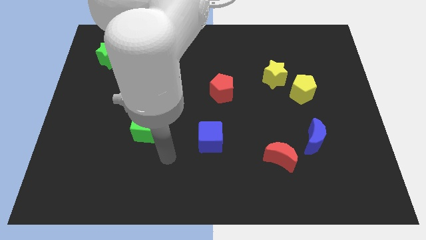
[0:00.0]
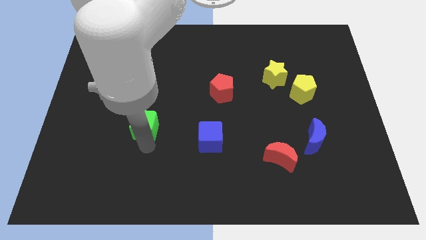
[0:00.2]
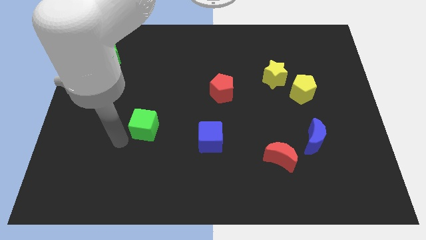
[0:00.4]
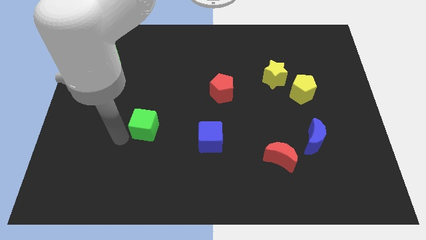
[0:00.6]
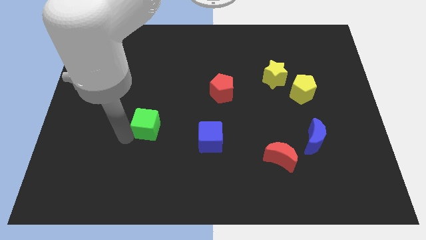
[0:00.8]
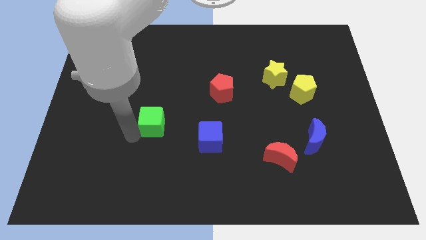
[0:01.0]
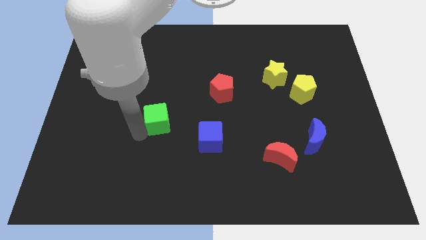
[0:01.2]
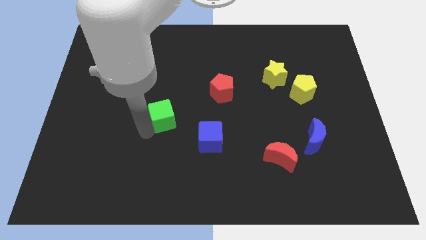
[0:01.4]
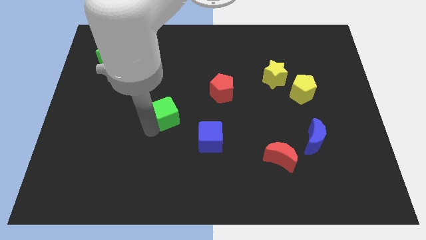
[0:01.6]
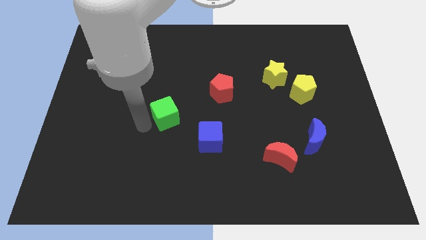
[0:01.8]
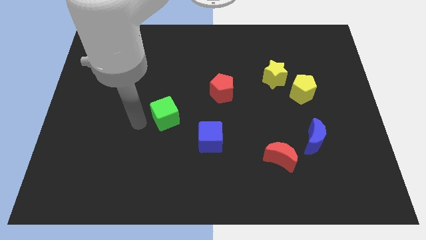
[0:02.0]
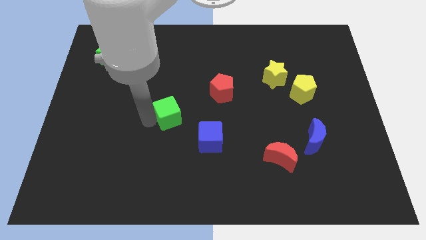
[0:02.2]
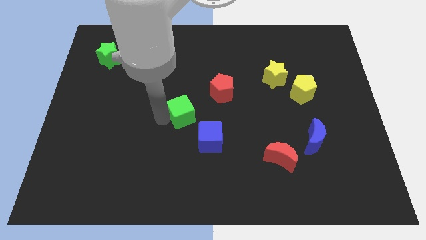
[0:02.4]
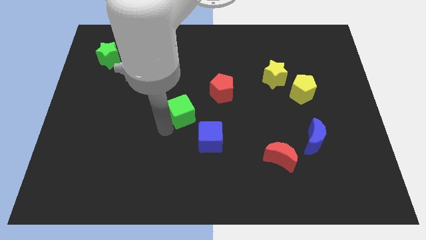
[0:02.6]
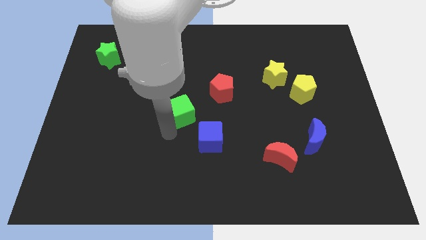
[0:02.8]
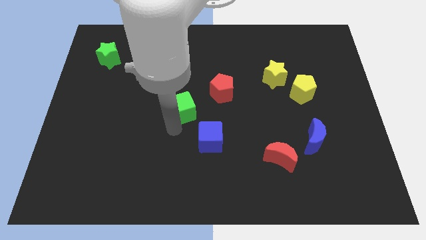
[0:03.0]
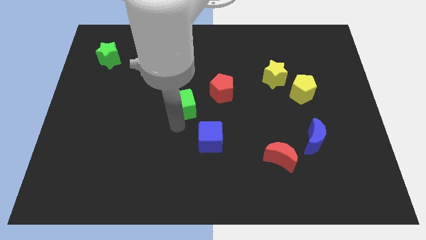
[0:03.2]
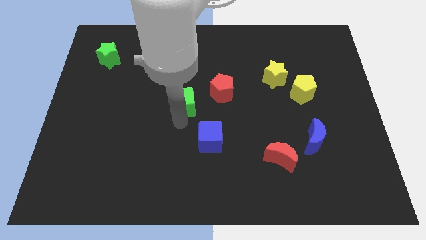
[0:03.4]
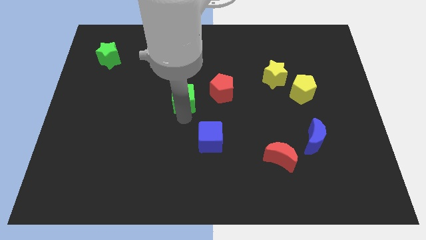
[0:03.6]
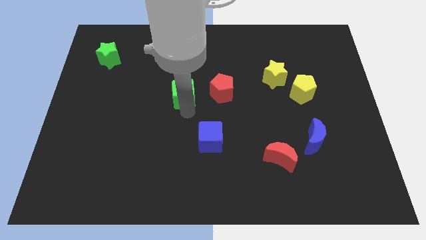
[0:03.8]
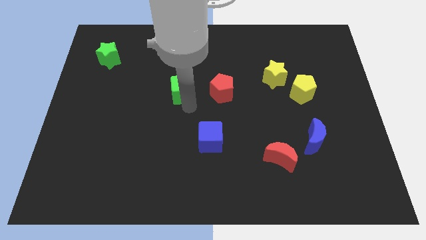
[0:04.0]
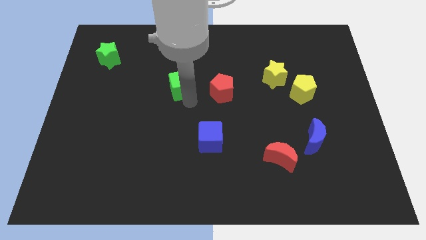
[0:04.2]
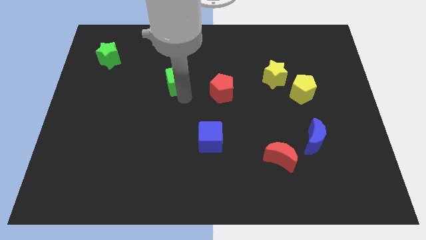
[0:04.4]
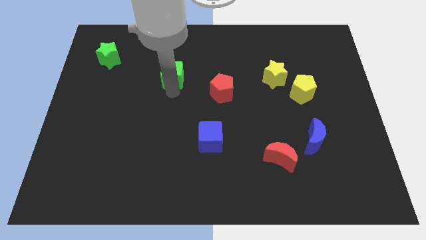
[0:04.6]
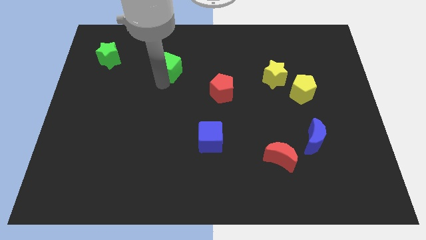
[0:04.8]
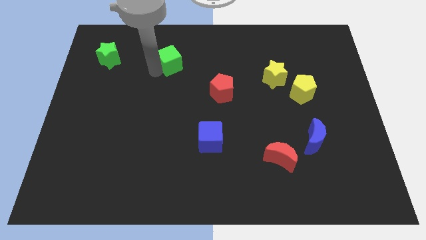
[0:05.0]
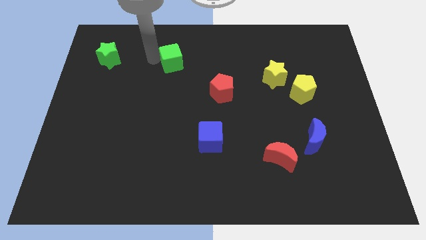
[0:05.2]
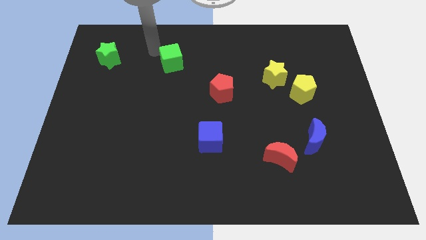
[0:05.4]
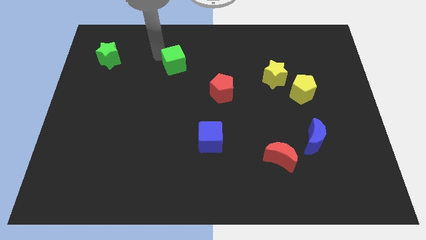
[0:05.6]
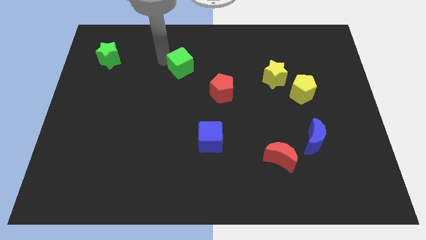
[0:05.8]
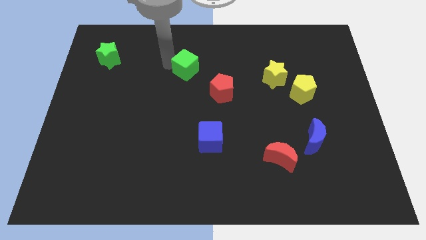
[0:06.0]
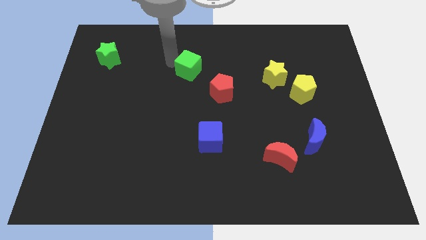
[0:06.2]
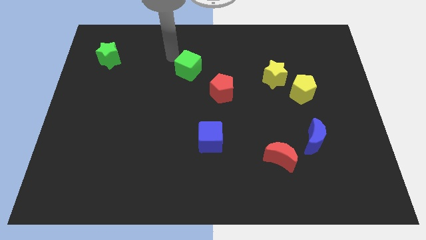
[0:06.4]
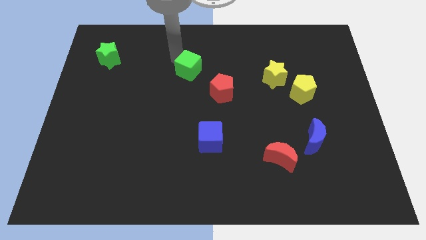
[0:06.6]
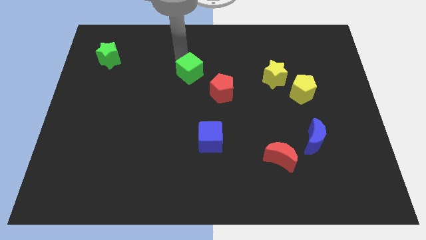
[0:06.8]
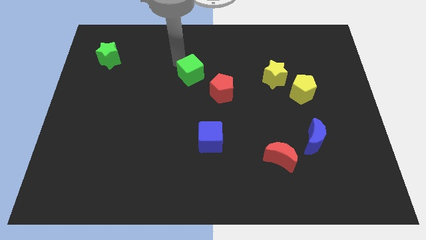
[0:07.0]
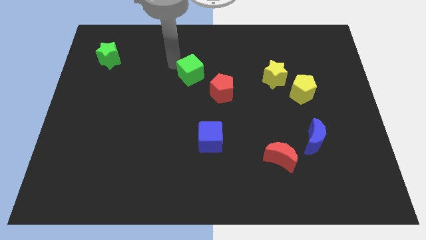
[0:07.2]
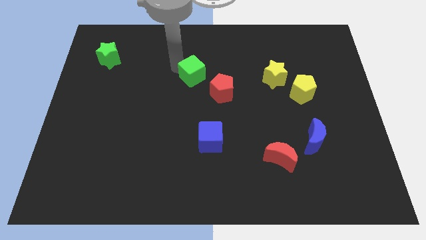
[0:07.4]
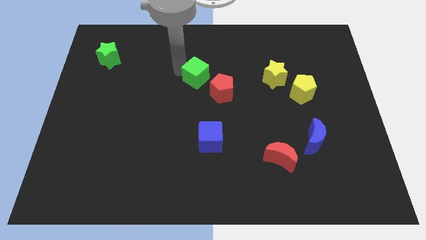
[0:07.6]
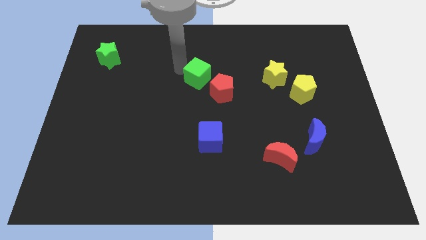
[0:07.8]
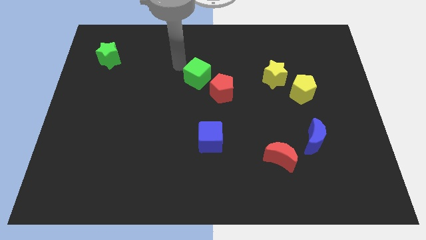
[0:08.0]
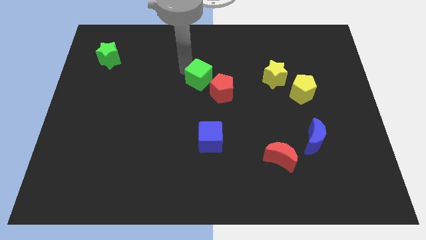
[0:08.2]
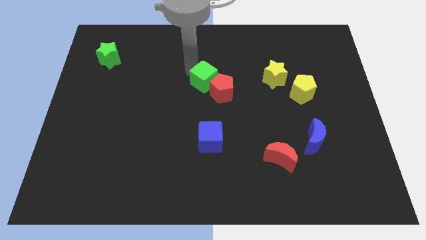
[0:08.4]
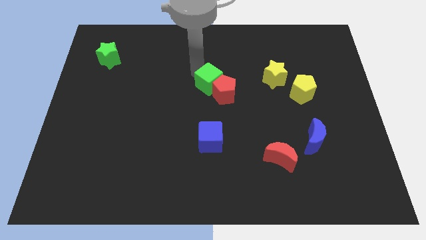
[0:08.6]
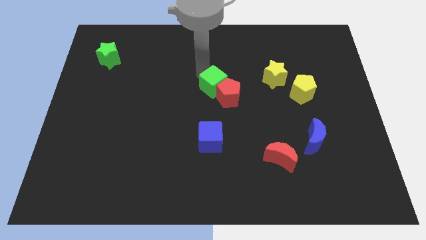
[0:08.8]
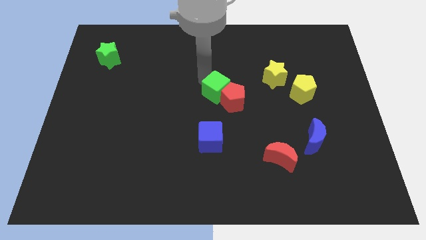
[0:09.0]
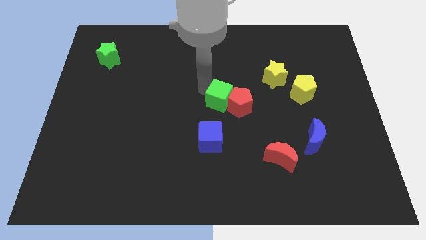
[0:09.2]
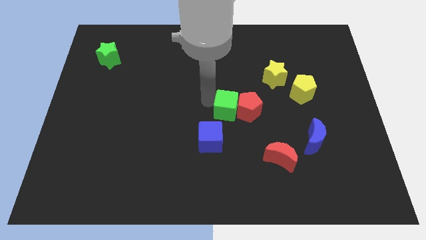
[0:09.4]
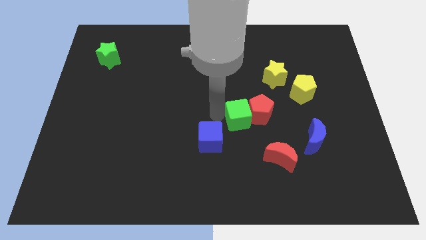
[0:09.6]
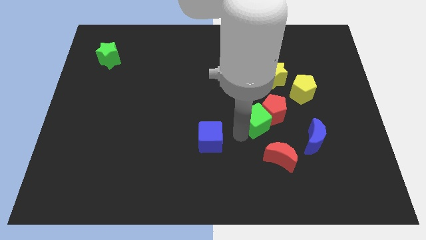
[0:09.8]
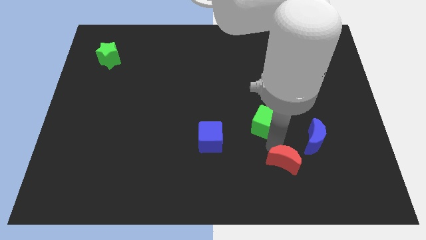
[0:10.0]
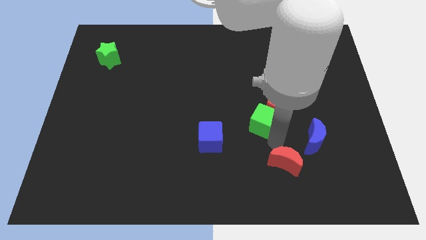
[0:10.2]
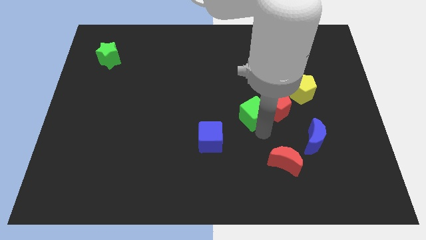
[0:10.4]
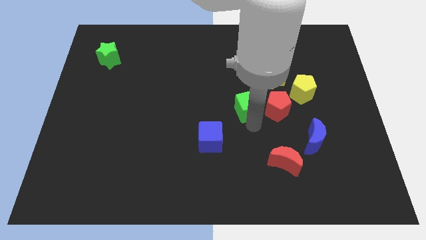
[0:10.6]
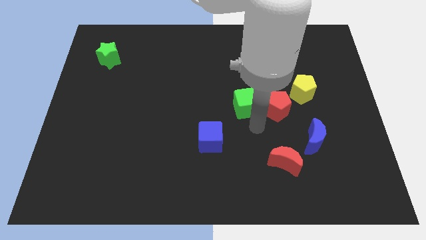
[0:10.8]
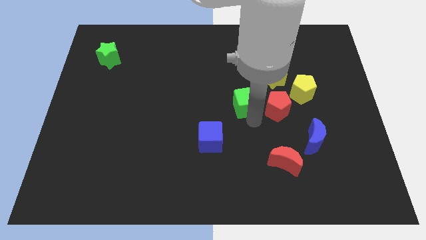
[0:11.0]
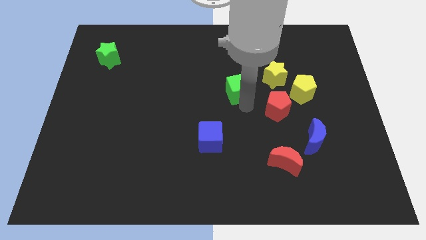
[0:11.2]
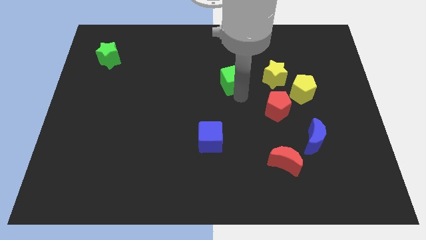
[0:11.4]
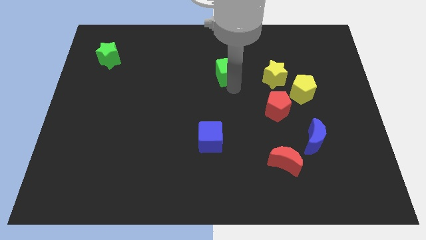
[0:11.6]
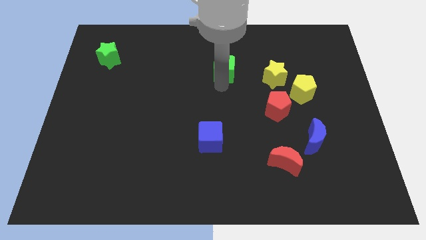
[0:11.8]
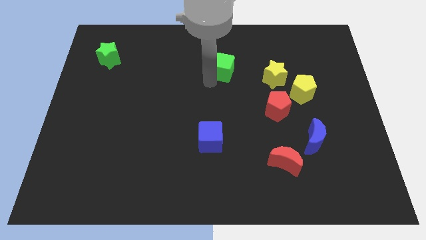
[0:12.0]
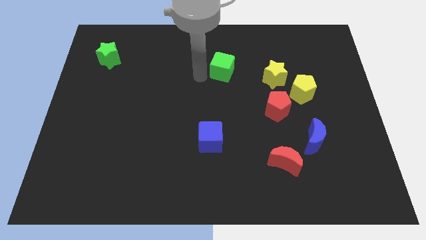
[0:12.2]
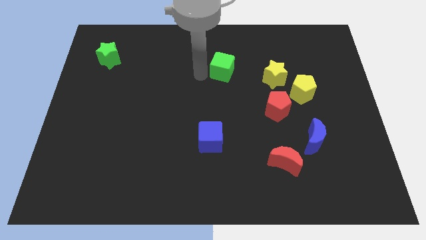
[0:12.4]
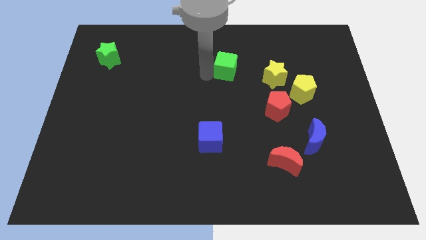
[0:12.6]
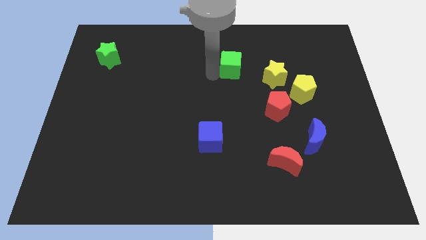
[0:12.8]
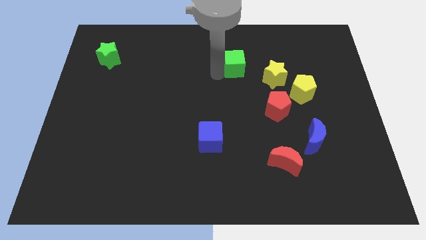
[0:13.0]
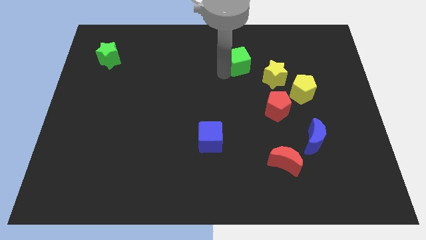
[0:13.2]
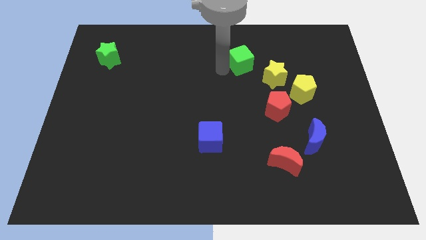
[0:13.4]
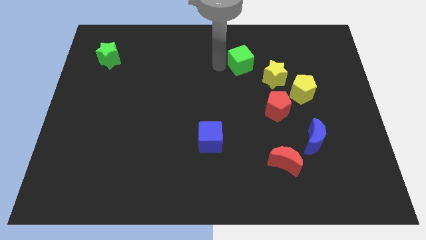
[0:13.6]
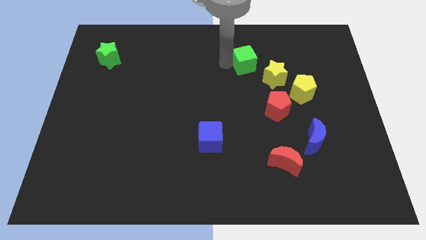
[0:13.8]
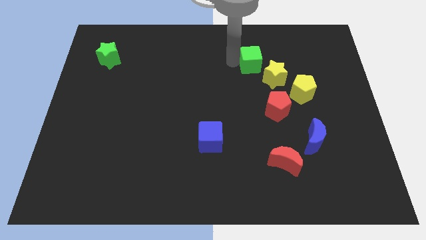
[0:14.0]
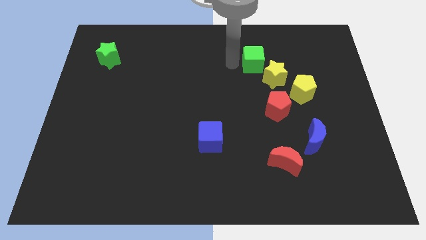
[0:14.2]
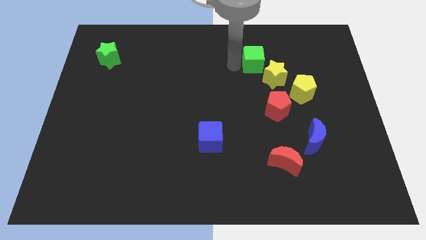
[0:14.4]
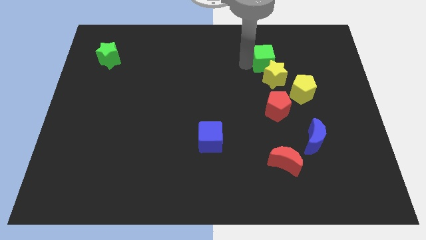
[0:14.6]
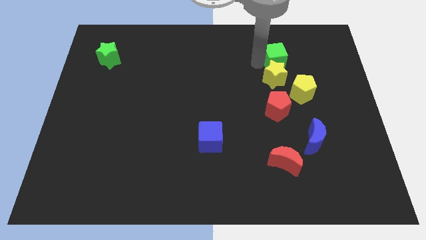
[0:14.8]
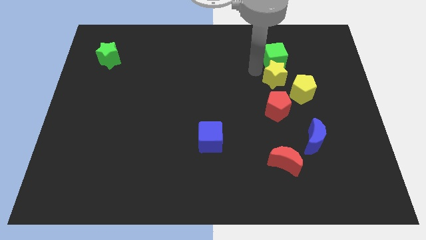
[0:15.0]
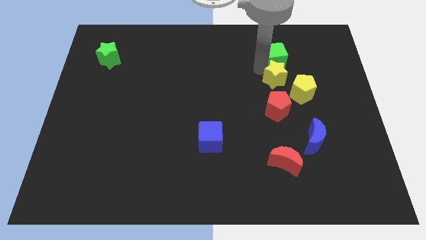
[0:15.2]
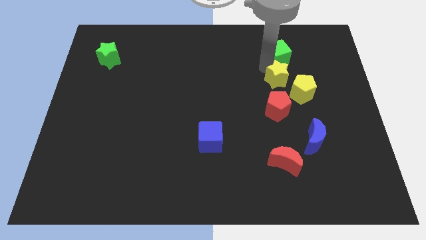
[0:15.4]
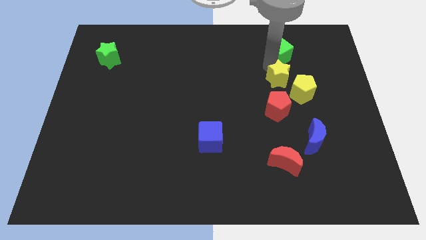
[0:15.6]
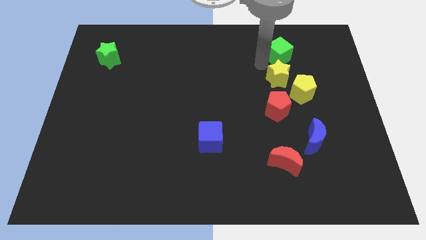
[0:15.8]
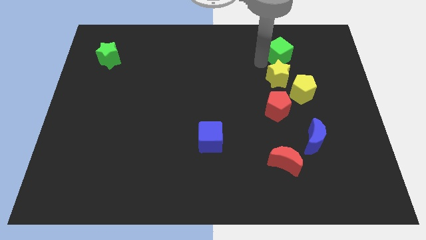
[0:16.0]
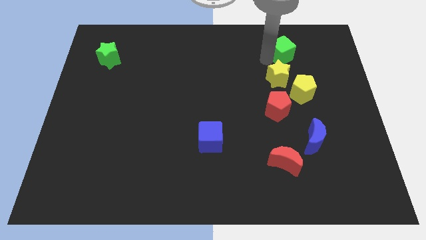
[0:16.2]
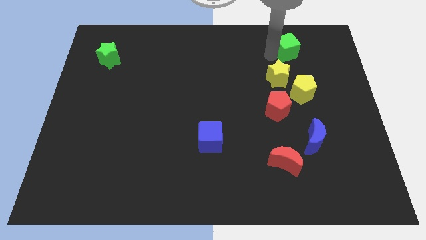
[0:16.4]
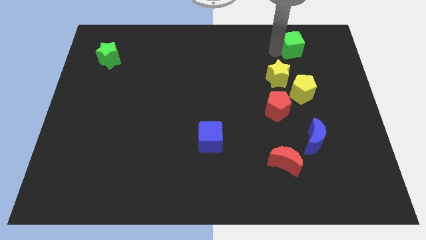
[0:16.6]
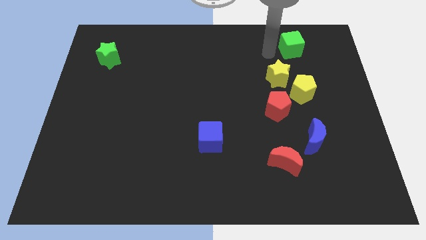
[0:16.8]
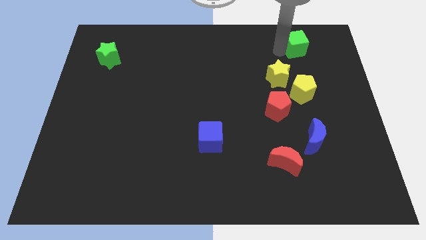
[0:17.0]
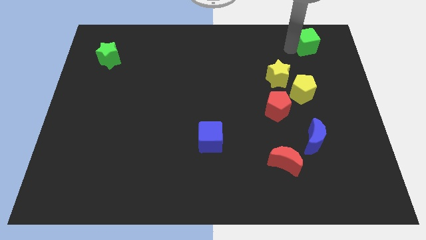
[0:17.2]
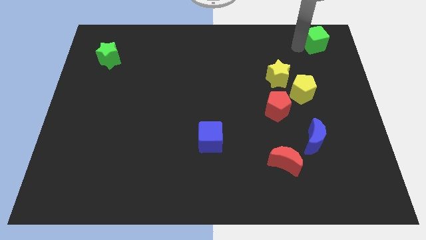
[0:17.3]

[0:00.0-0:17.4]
push the green cube to the top right corner
